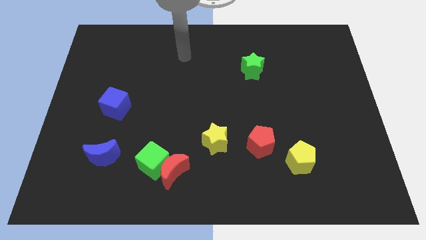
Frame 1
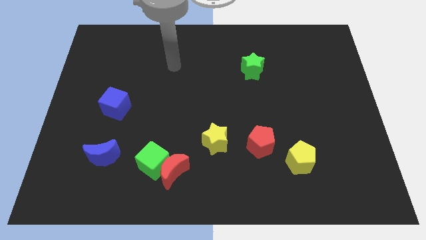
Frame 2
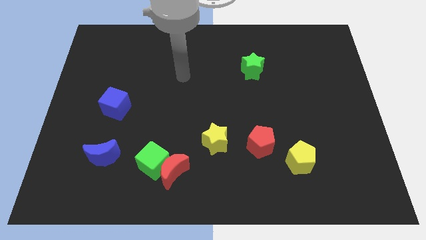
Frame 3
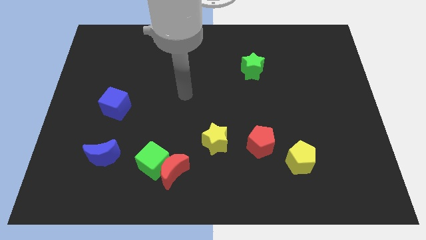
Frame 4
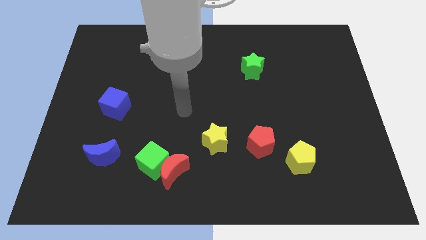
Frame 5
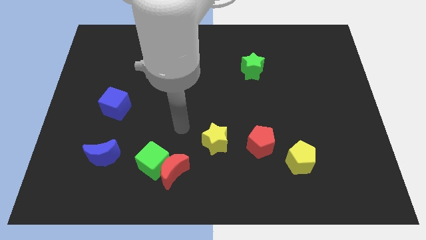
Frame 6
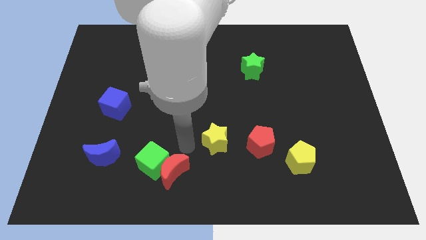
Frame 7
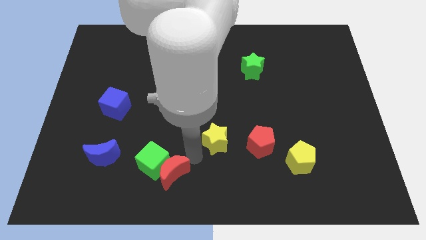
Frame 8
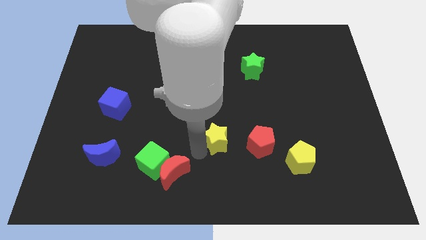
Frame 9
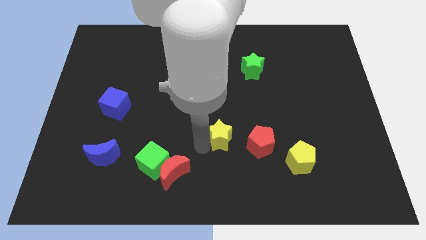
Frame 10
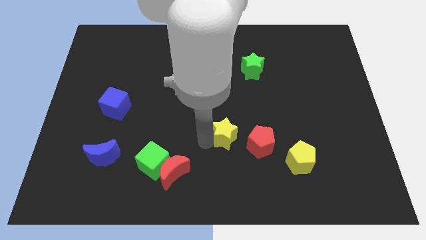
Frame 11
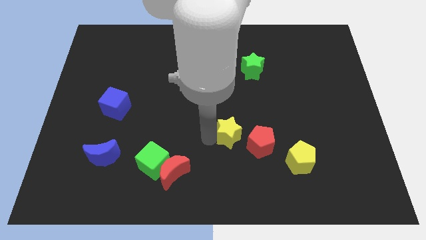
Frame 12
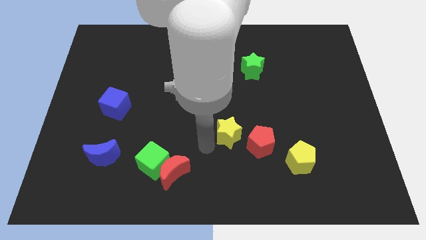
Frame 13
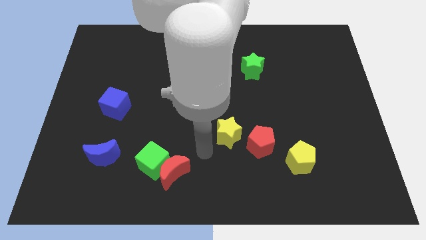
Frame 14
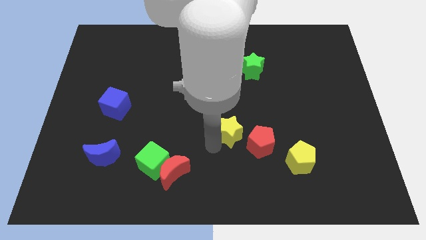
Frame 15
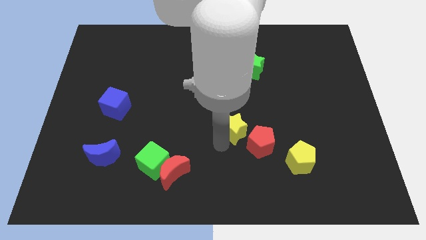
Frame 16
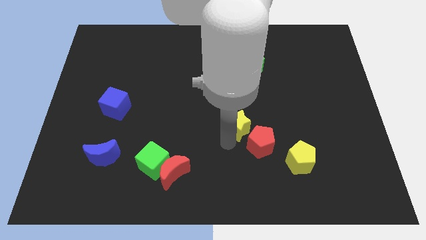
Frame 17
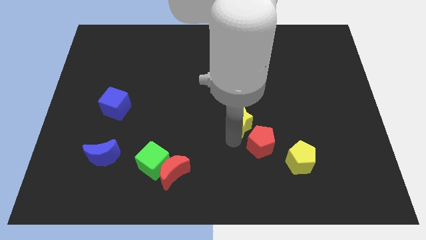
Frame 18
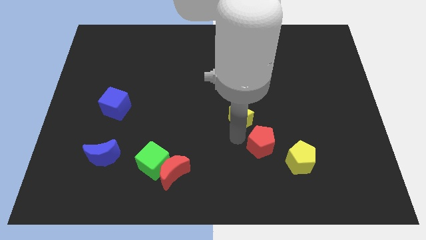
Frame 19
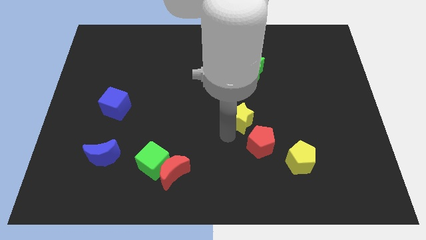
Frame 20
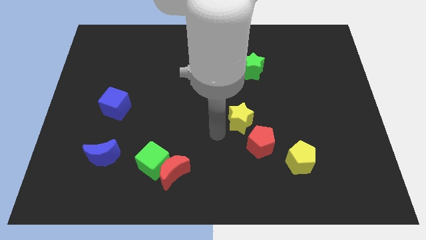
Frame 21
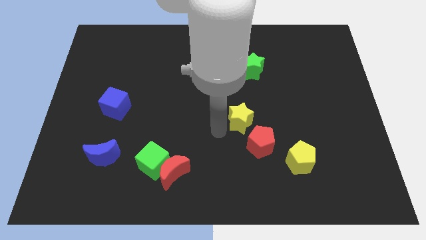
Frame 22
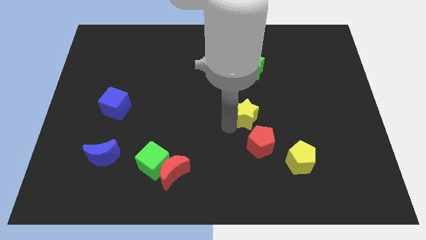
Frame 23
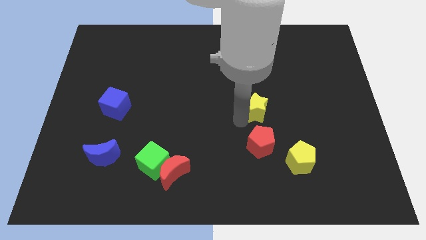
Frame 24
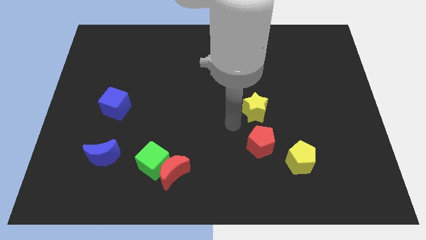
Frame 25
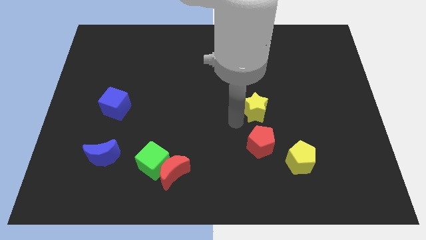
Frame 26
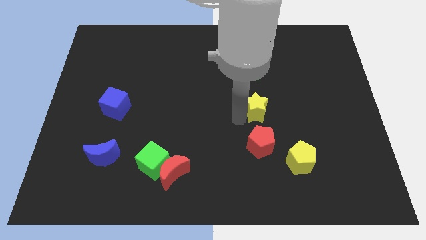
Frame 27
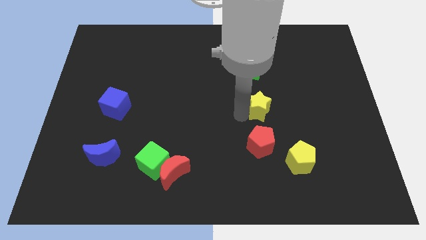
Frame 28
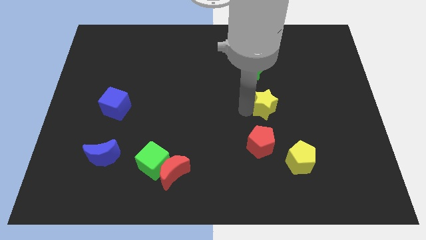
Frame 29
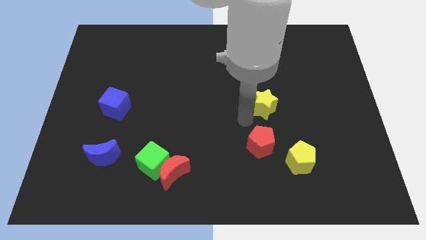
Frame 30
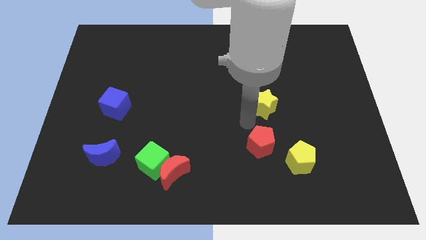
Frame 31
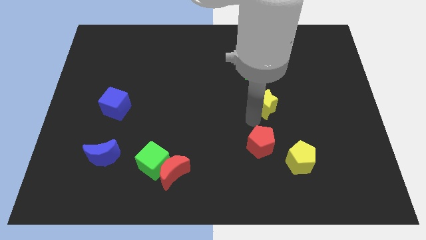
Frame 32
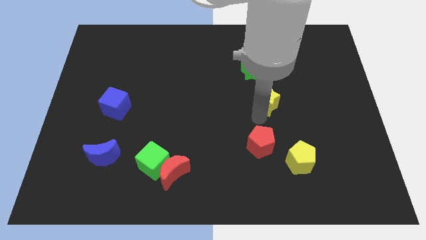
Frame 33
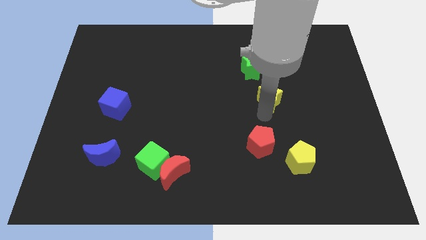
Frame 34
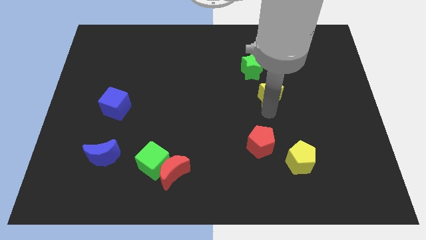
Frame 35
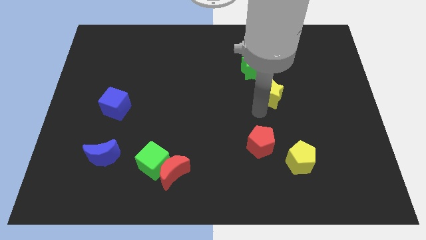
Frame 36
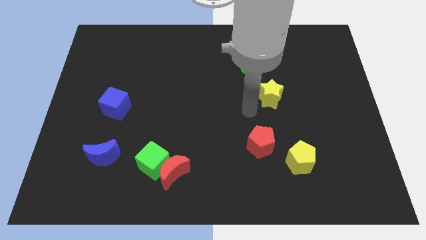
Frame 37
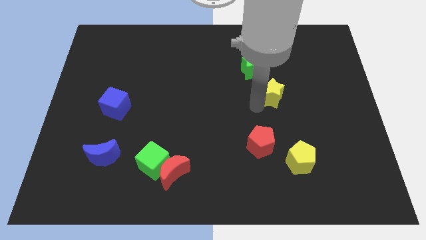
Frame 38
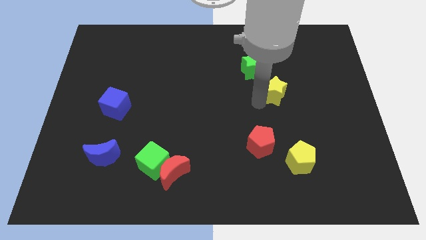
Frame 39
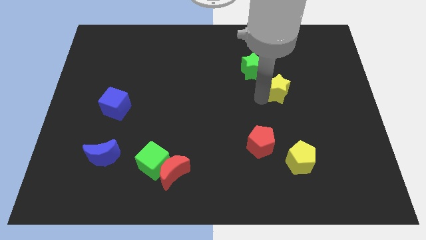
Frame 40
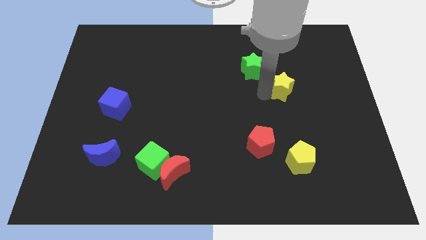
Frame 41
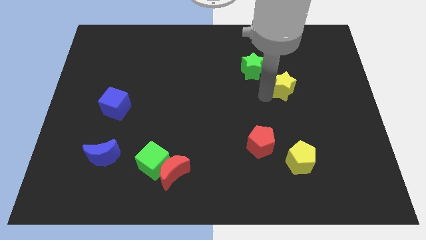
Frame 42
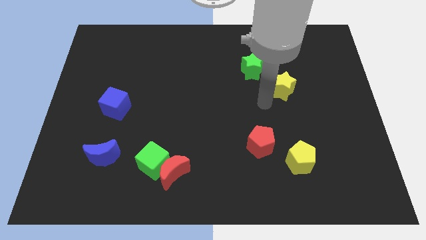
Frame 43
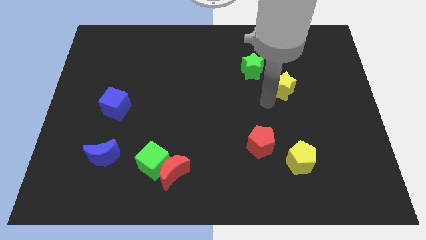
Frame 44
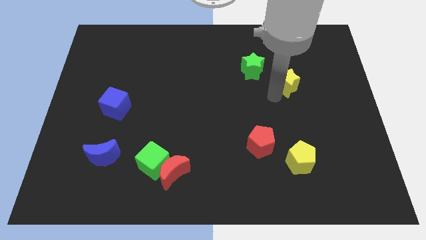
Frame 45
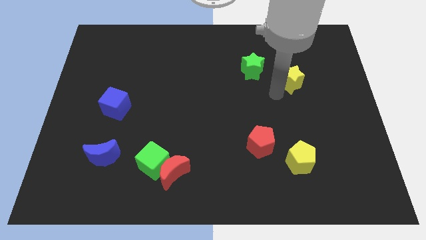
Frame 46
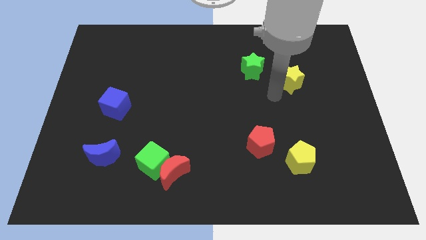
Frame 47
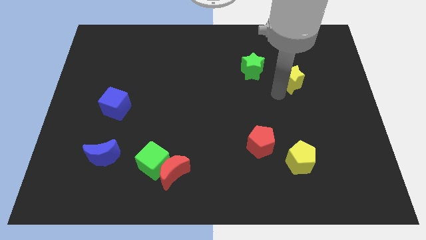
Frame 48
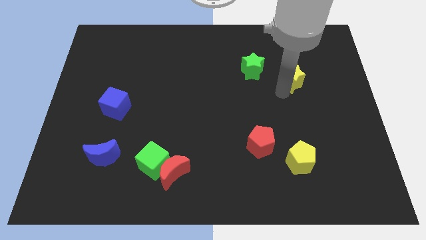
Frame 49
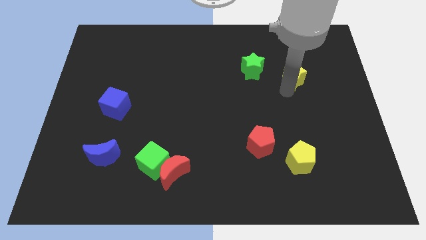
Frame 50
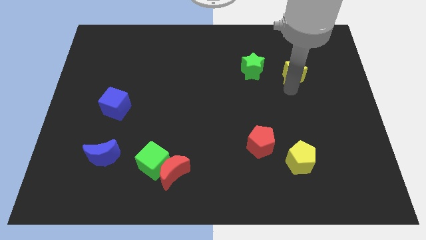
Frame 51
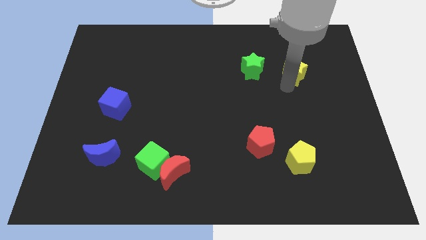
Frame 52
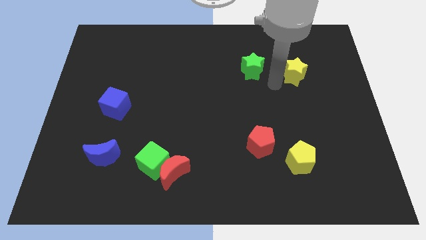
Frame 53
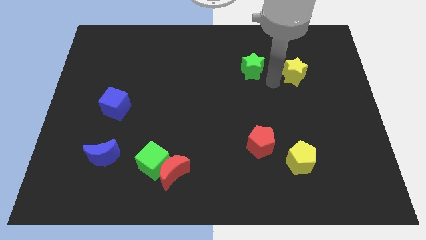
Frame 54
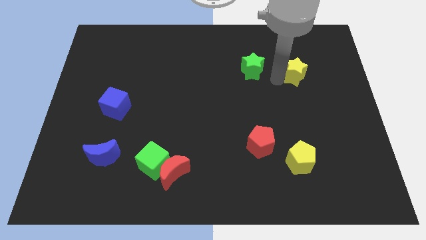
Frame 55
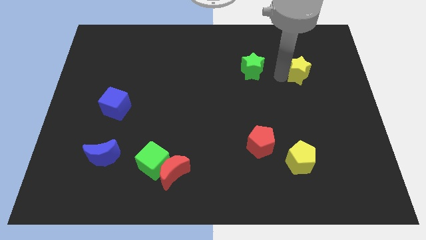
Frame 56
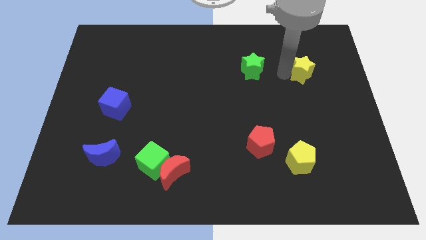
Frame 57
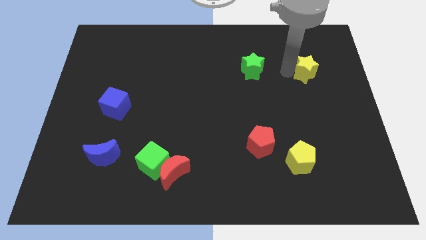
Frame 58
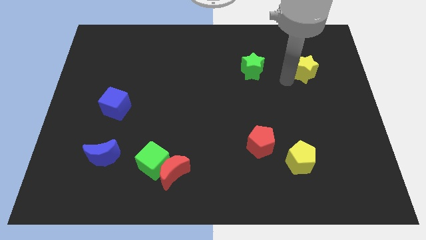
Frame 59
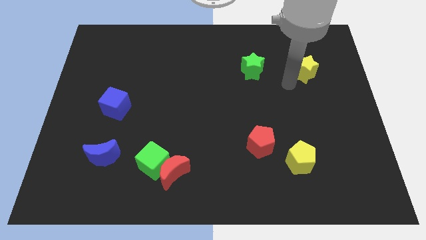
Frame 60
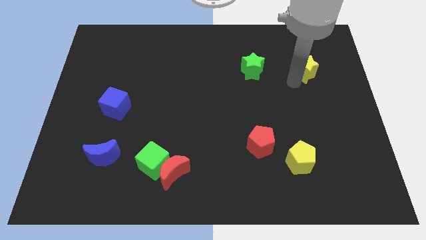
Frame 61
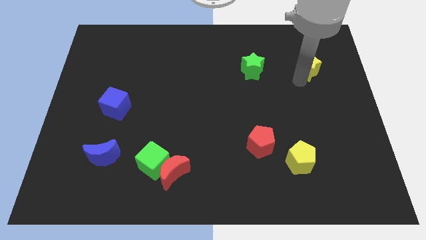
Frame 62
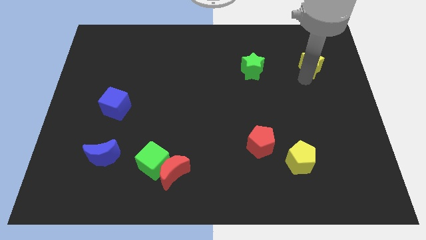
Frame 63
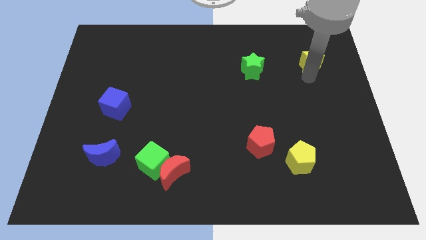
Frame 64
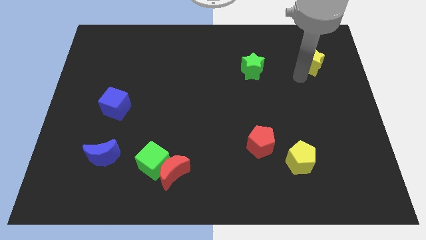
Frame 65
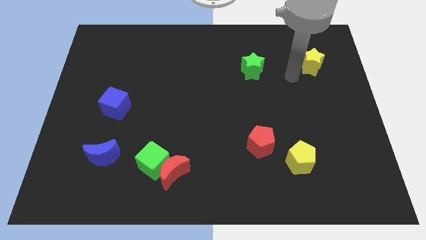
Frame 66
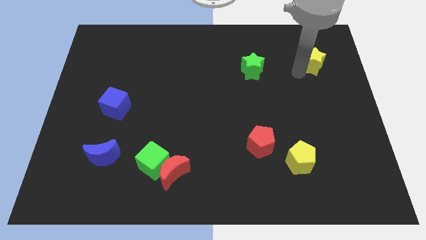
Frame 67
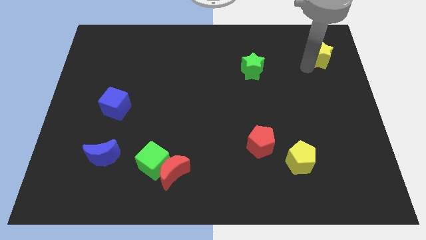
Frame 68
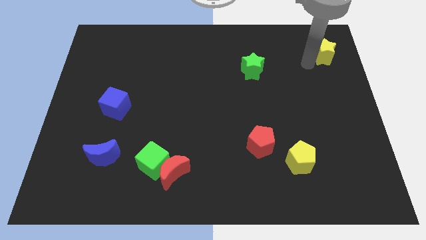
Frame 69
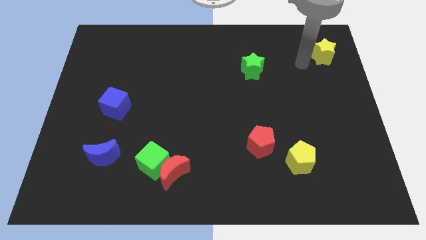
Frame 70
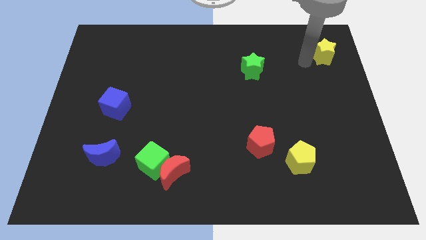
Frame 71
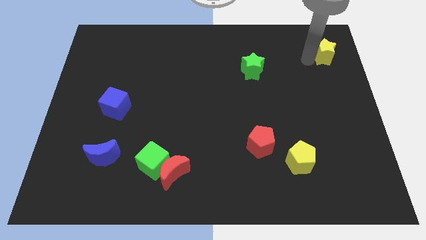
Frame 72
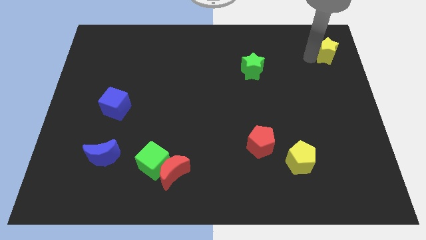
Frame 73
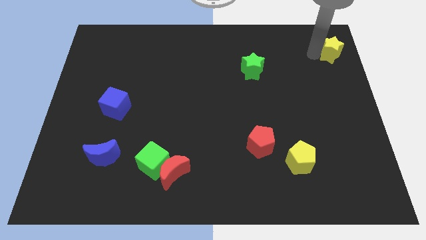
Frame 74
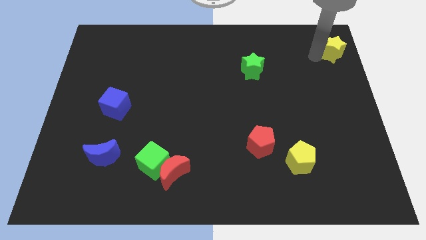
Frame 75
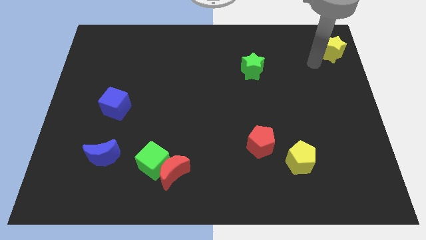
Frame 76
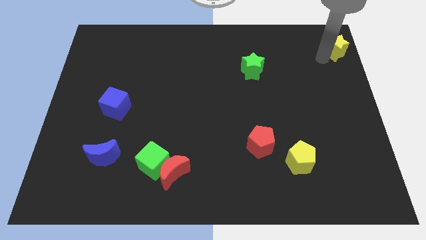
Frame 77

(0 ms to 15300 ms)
slide the yellow star to the top right corner
